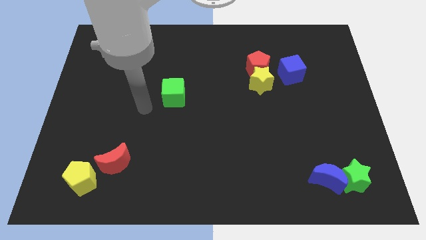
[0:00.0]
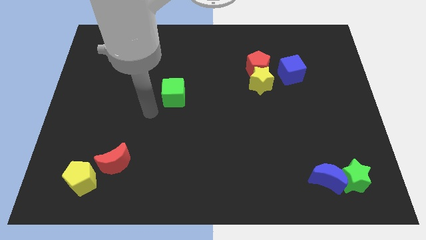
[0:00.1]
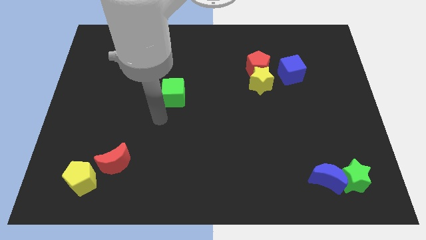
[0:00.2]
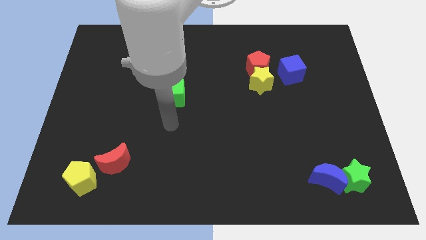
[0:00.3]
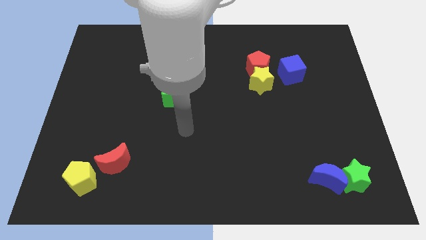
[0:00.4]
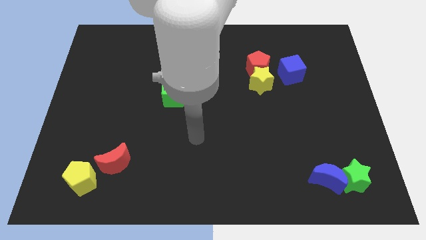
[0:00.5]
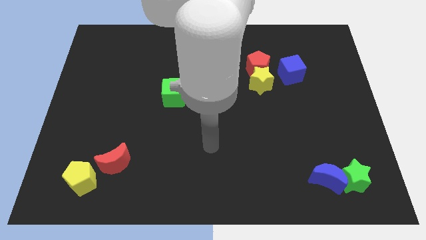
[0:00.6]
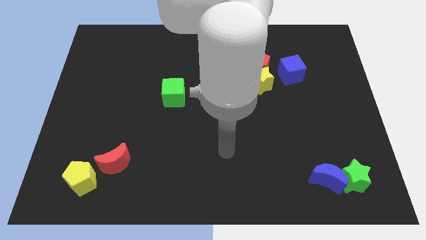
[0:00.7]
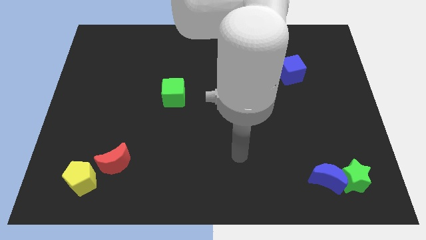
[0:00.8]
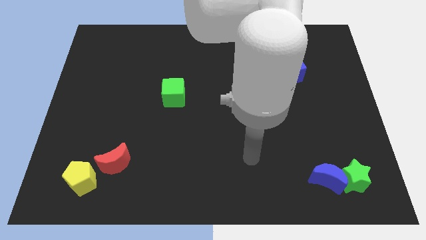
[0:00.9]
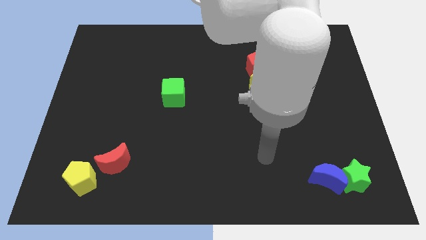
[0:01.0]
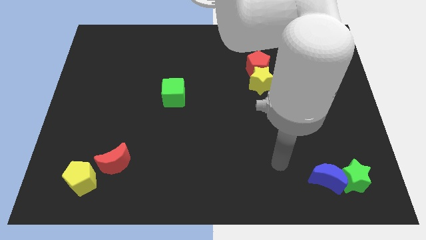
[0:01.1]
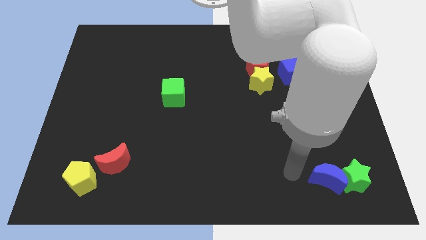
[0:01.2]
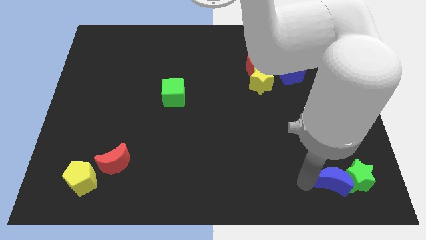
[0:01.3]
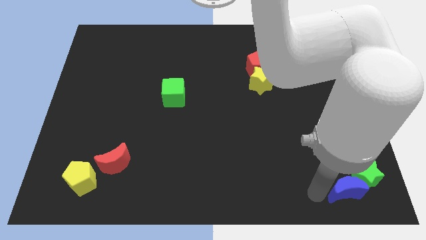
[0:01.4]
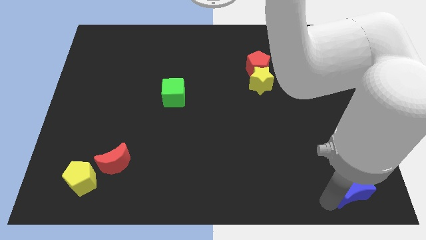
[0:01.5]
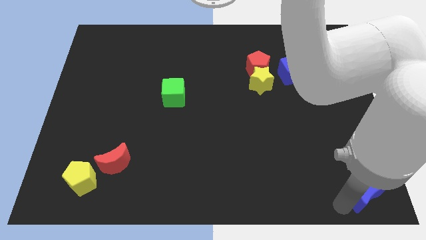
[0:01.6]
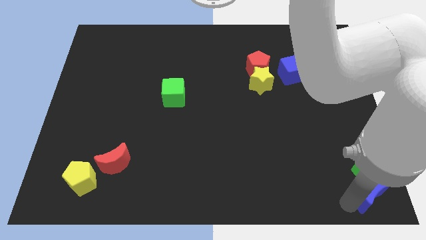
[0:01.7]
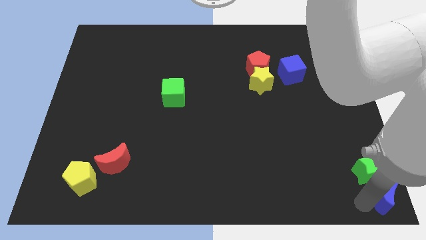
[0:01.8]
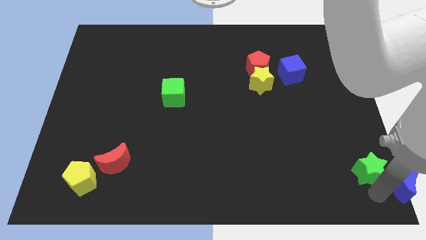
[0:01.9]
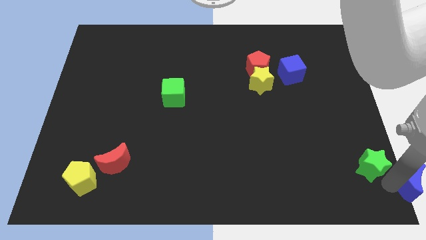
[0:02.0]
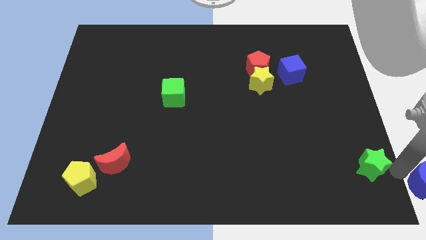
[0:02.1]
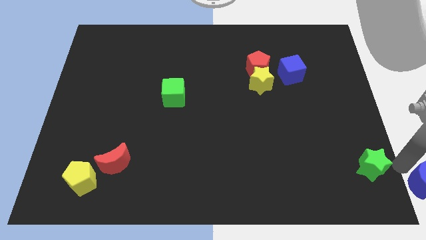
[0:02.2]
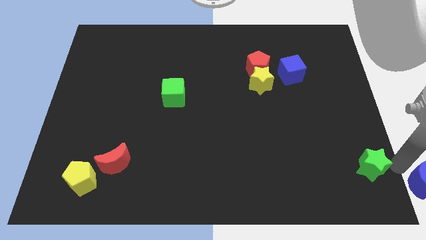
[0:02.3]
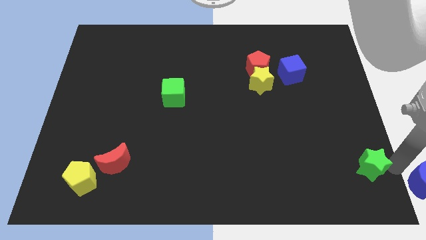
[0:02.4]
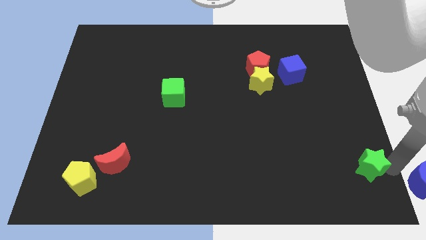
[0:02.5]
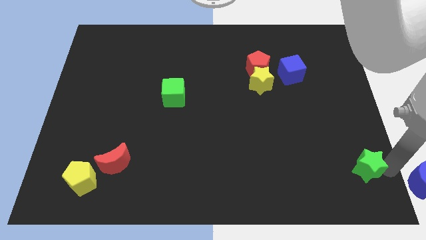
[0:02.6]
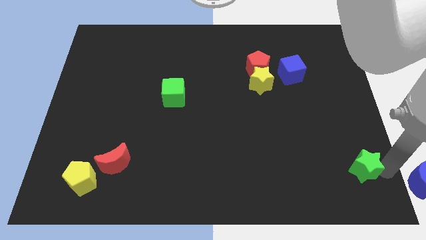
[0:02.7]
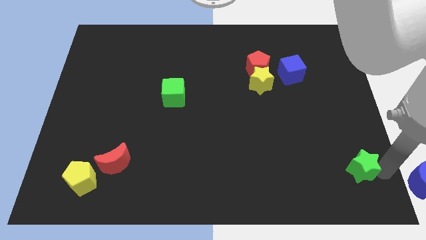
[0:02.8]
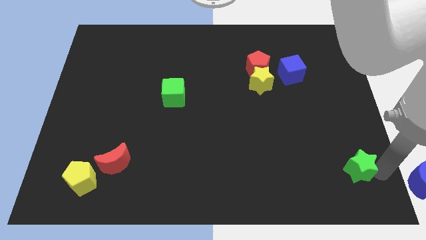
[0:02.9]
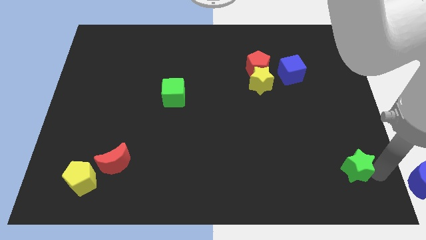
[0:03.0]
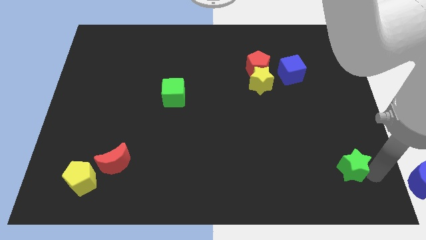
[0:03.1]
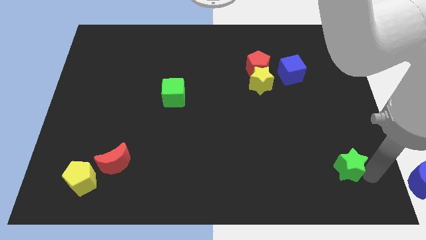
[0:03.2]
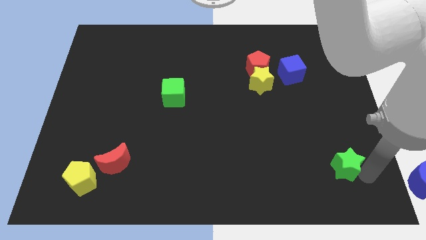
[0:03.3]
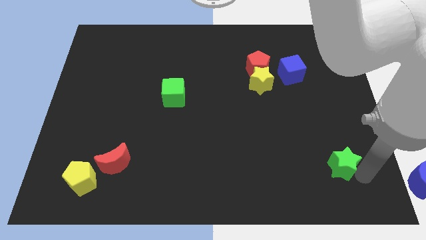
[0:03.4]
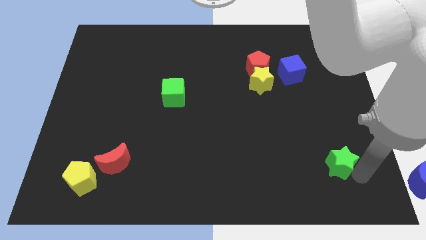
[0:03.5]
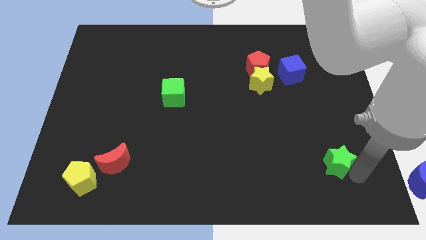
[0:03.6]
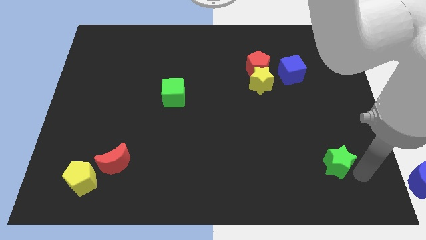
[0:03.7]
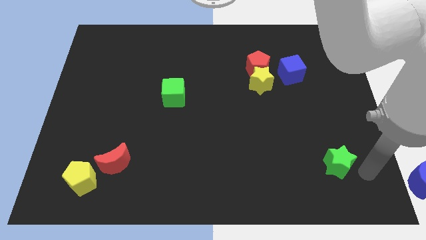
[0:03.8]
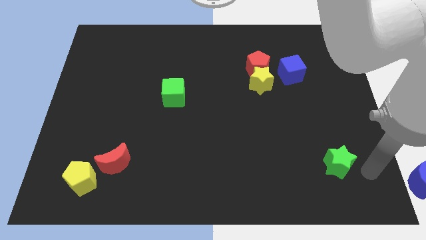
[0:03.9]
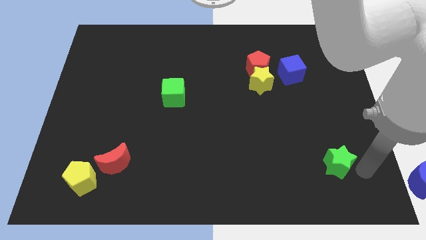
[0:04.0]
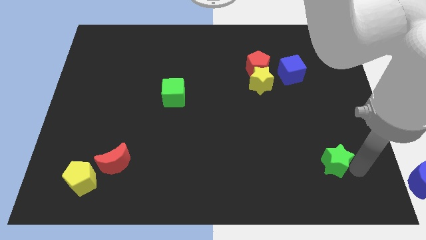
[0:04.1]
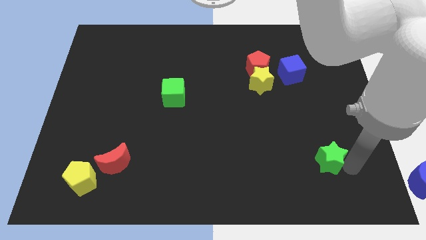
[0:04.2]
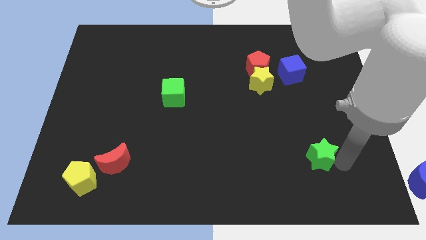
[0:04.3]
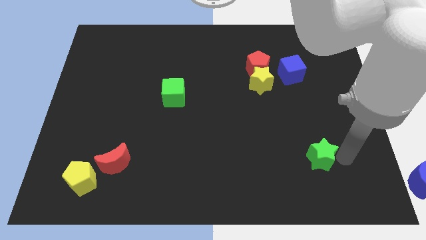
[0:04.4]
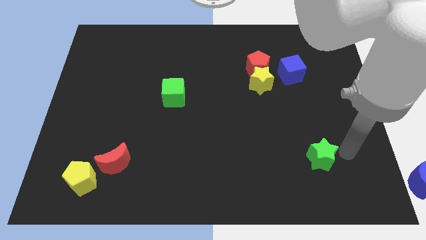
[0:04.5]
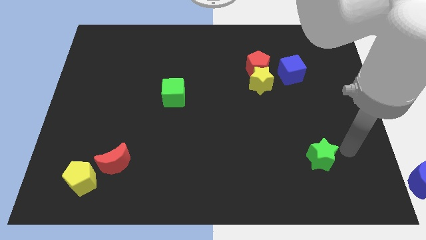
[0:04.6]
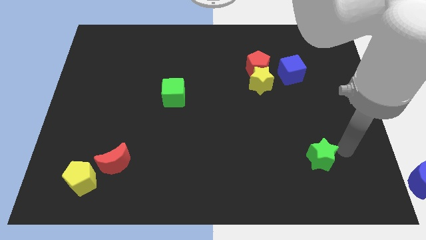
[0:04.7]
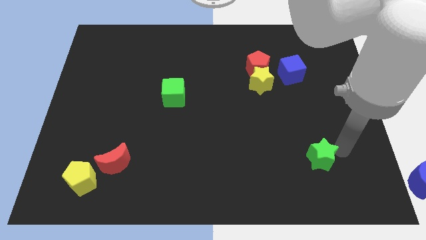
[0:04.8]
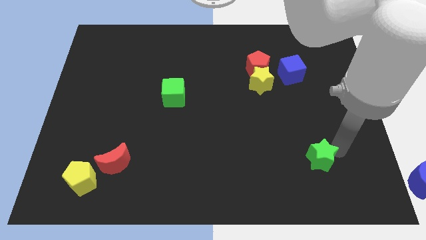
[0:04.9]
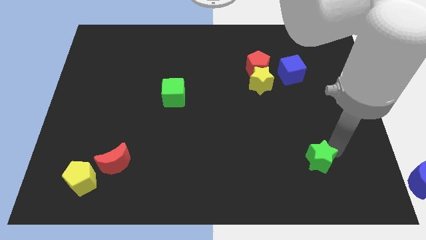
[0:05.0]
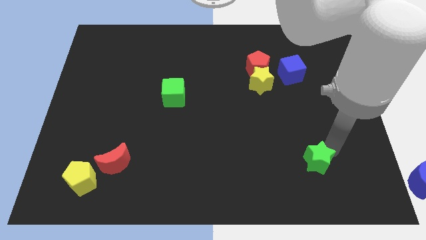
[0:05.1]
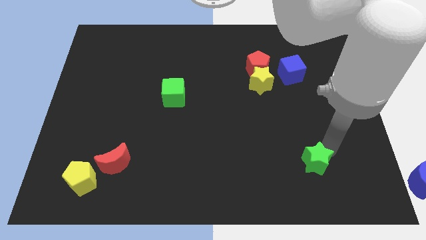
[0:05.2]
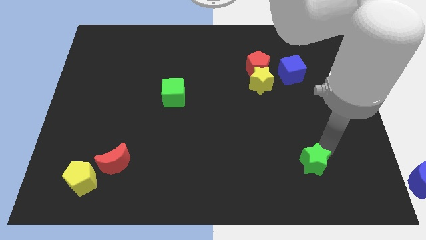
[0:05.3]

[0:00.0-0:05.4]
push the green star slightly left

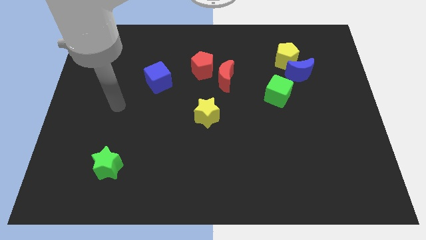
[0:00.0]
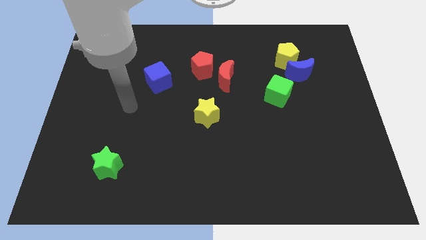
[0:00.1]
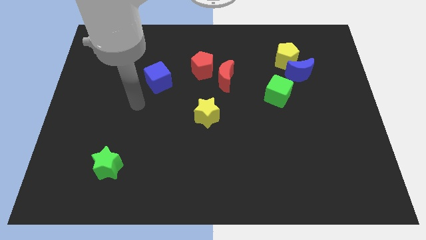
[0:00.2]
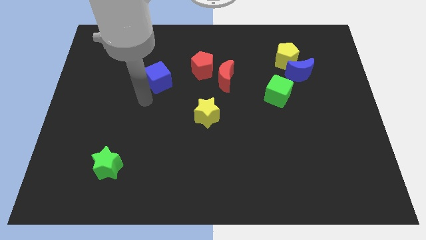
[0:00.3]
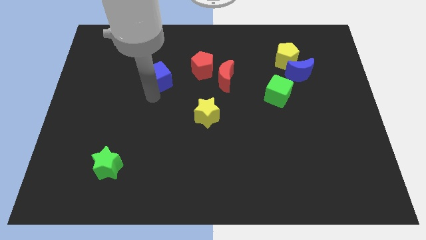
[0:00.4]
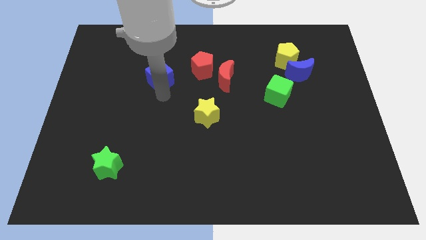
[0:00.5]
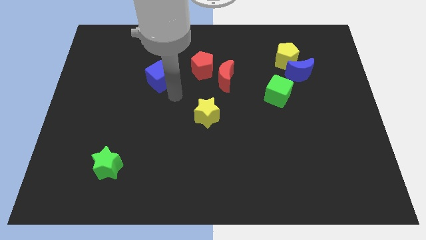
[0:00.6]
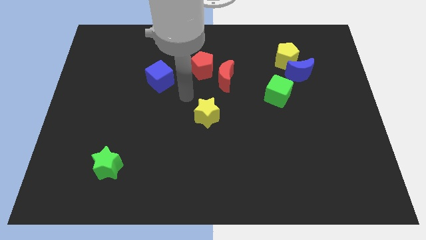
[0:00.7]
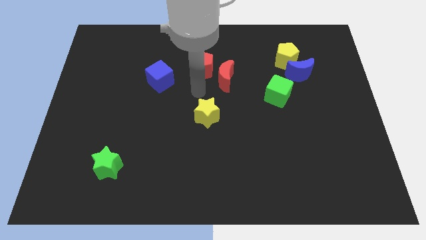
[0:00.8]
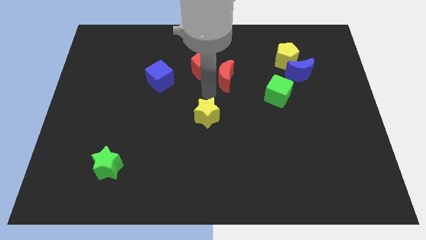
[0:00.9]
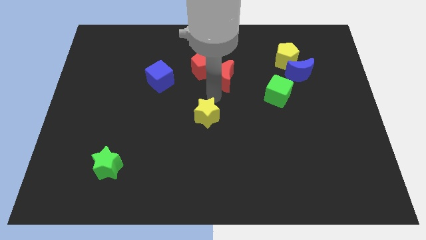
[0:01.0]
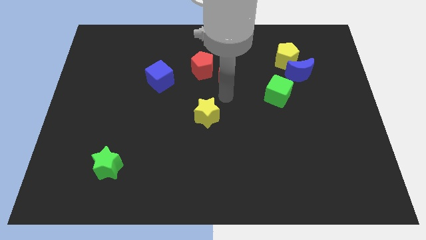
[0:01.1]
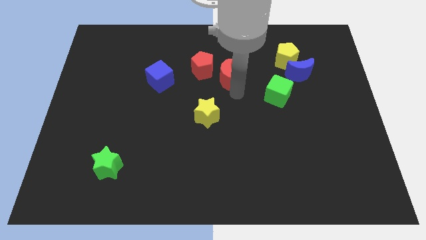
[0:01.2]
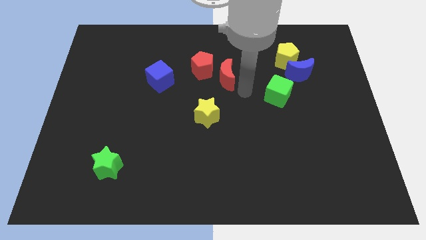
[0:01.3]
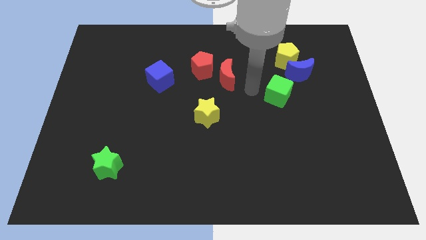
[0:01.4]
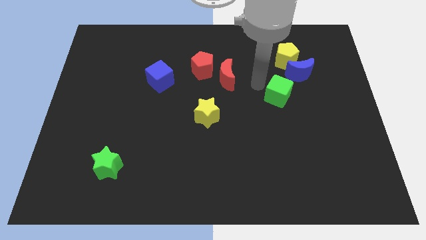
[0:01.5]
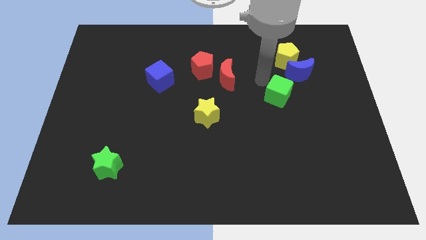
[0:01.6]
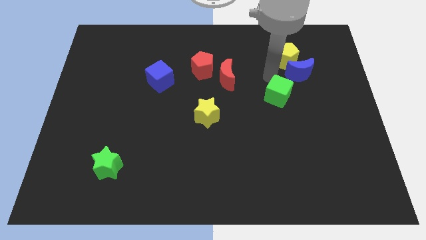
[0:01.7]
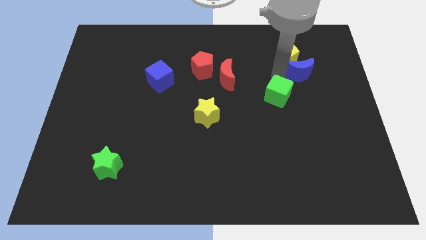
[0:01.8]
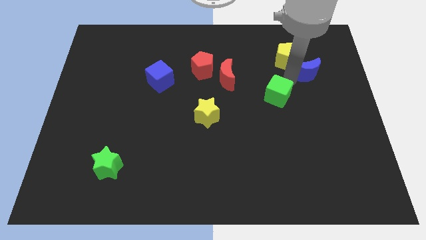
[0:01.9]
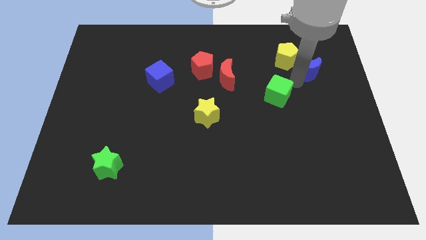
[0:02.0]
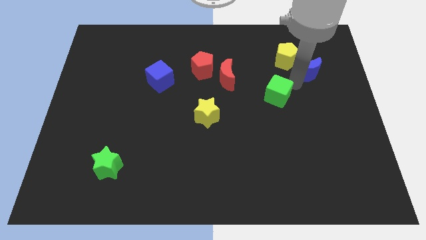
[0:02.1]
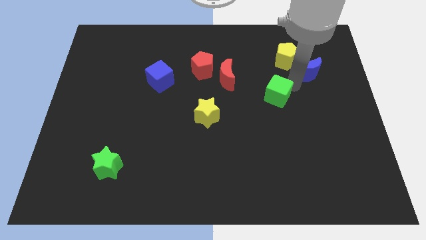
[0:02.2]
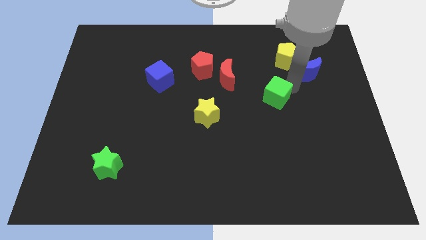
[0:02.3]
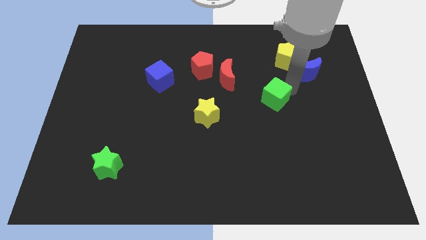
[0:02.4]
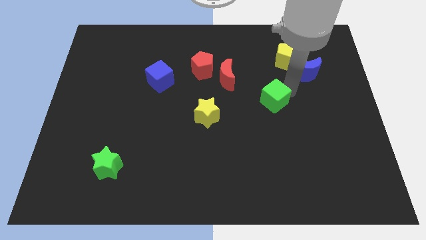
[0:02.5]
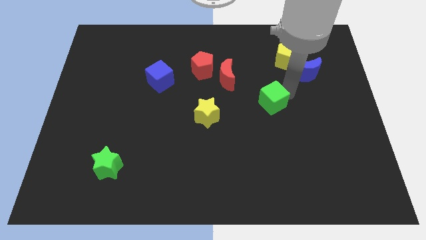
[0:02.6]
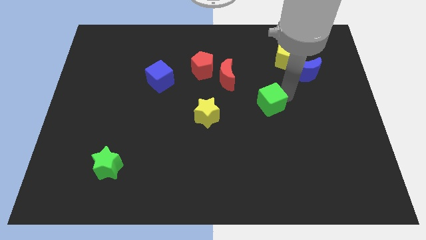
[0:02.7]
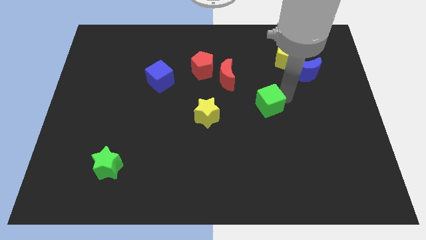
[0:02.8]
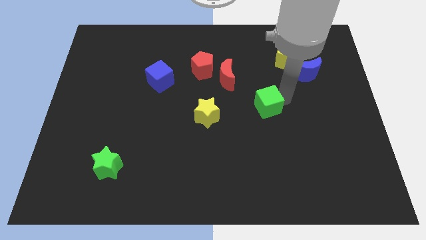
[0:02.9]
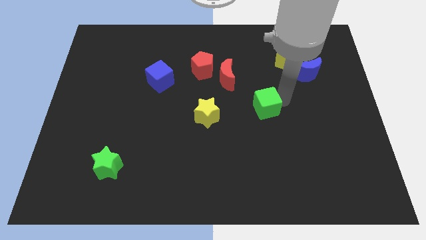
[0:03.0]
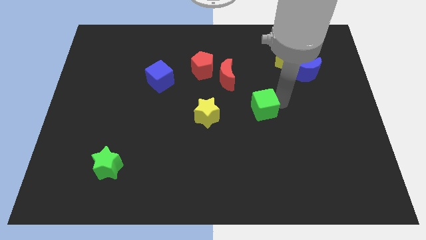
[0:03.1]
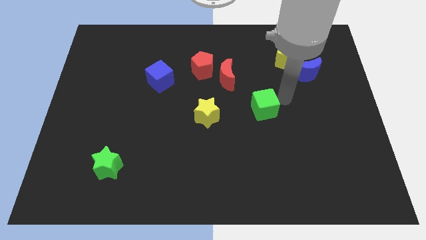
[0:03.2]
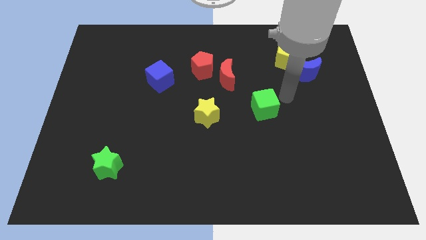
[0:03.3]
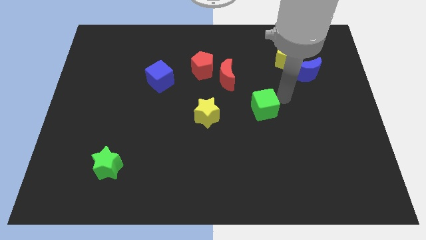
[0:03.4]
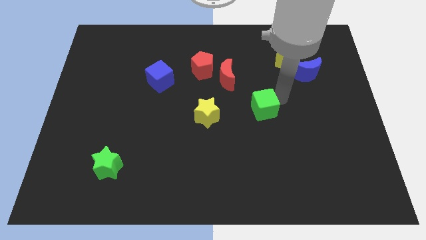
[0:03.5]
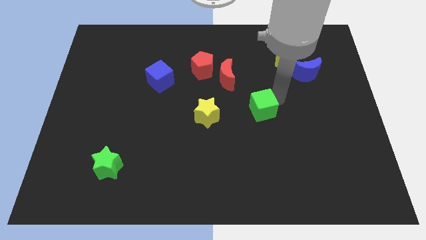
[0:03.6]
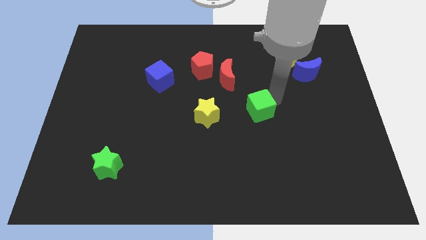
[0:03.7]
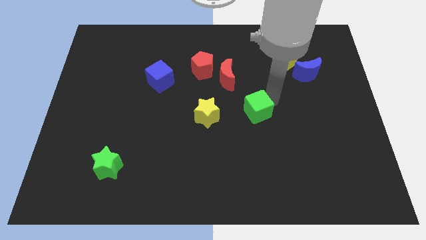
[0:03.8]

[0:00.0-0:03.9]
slightly push the green cube down and to the left diagonally
